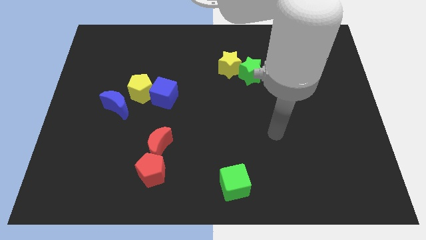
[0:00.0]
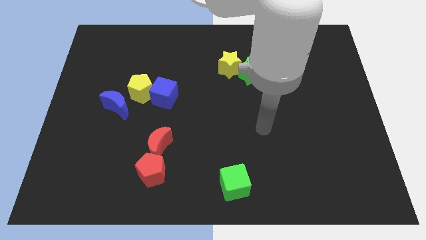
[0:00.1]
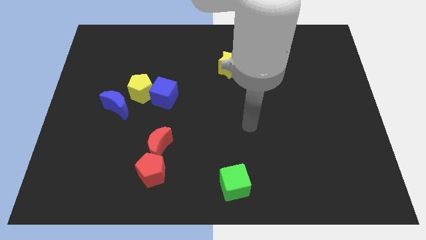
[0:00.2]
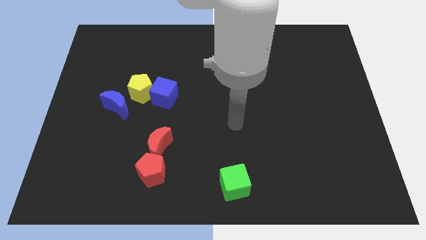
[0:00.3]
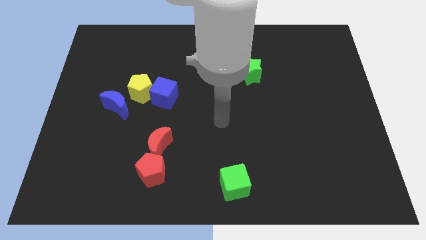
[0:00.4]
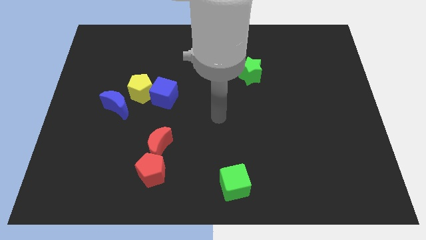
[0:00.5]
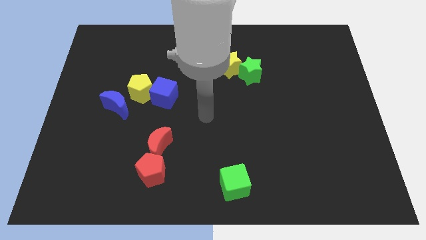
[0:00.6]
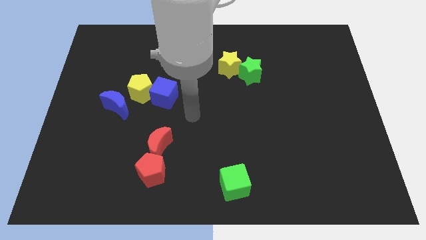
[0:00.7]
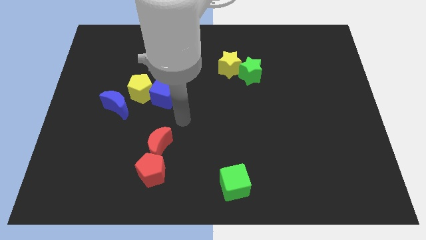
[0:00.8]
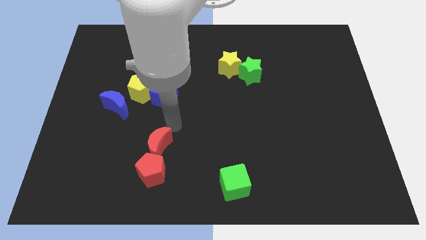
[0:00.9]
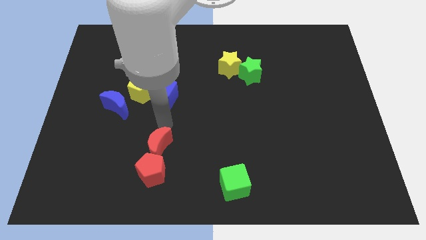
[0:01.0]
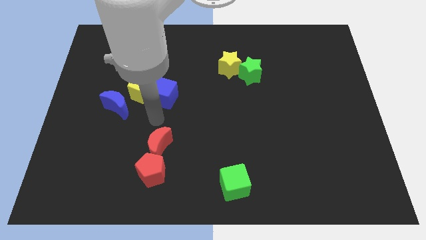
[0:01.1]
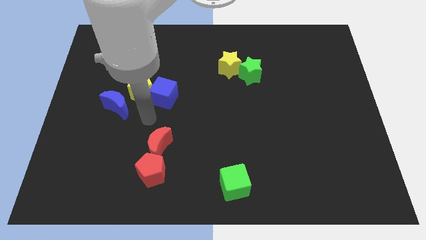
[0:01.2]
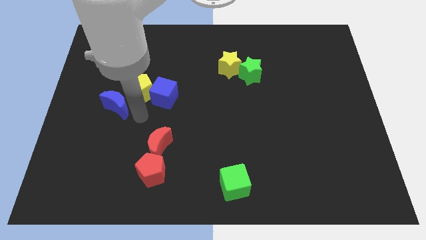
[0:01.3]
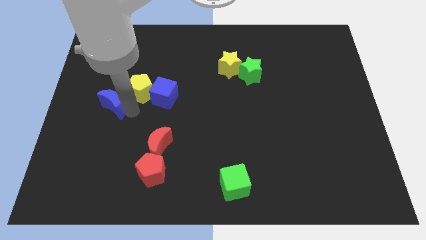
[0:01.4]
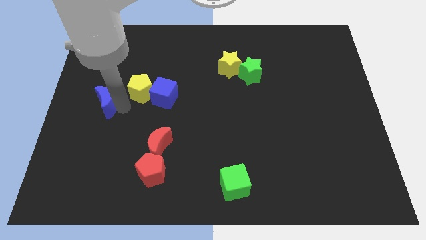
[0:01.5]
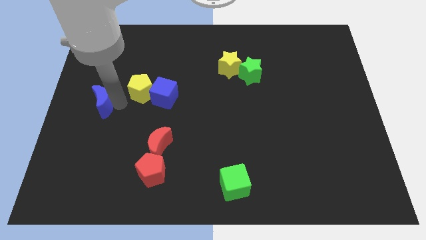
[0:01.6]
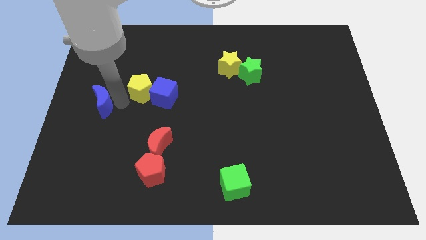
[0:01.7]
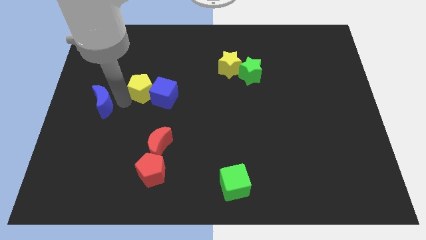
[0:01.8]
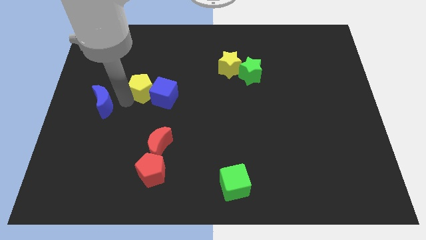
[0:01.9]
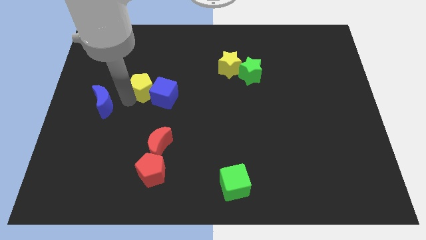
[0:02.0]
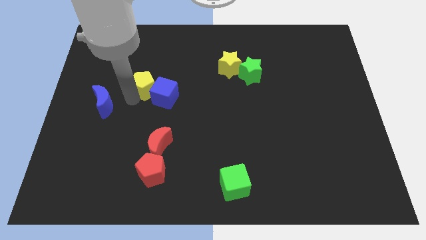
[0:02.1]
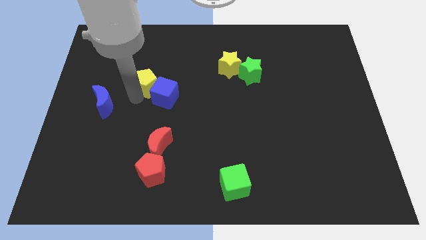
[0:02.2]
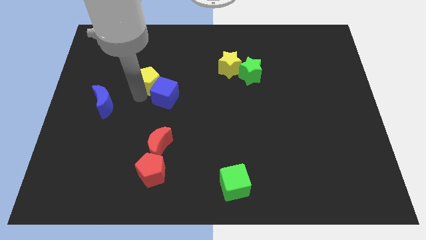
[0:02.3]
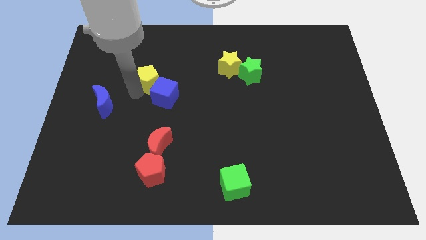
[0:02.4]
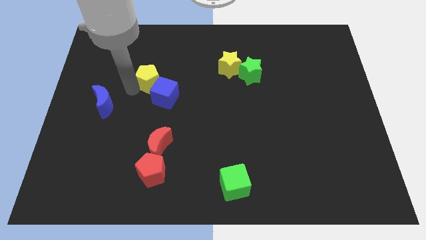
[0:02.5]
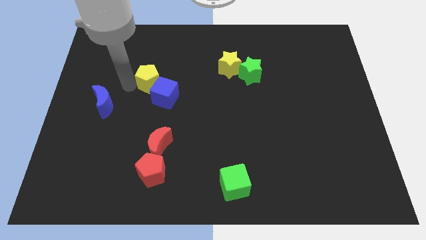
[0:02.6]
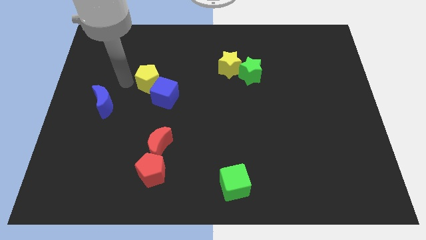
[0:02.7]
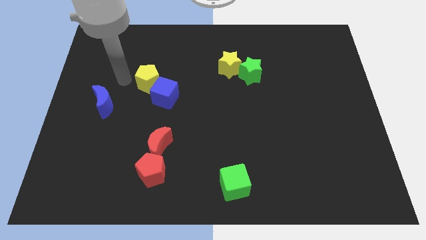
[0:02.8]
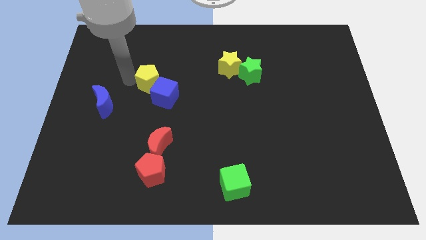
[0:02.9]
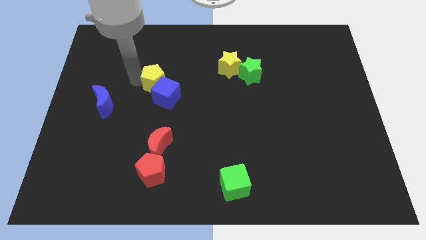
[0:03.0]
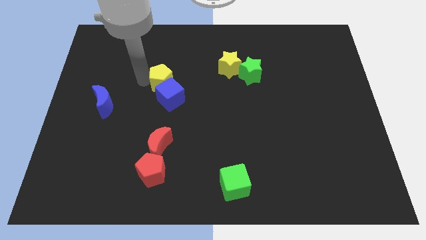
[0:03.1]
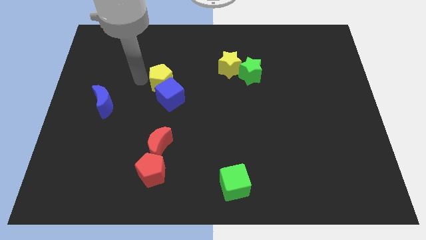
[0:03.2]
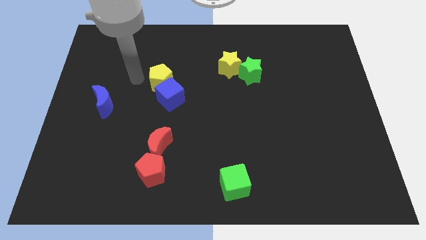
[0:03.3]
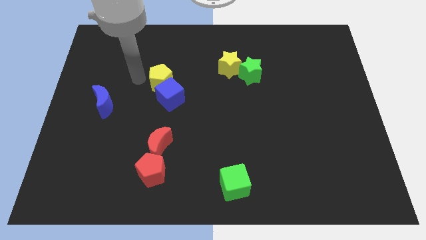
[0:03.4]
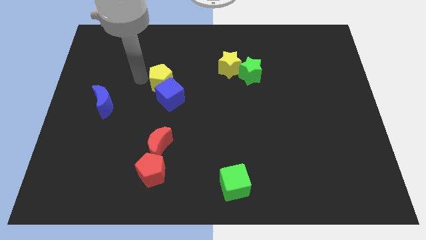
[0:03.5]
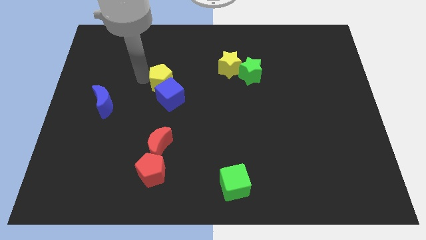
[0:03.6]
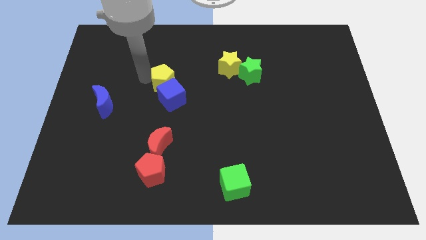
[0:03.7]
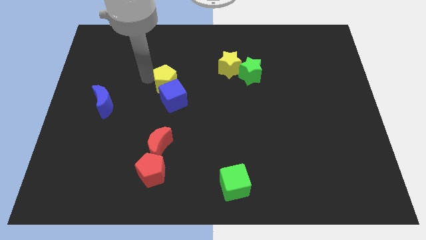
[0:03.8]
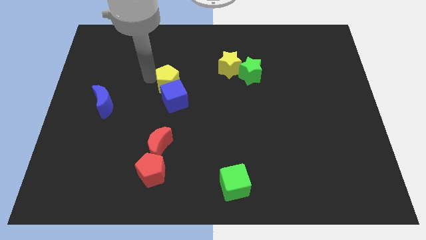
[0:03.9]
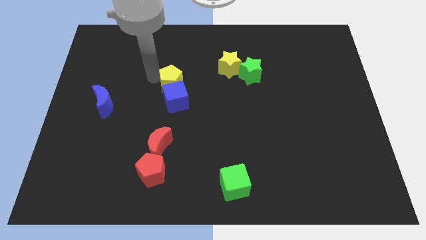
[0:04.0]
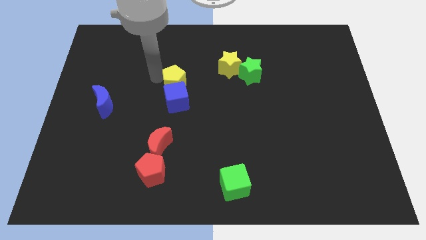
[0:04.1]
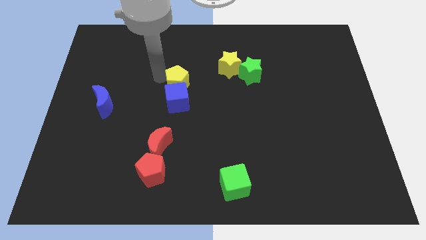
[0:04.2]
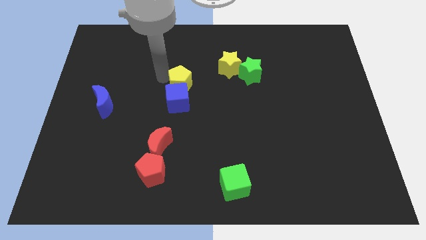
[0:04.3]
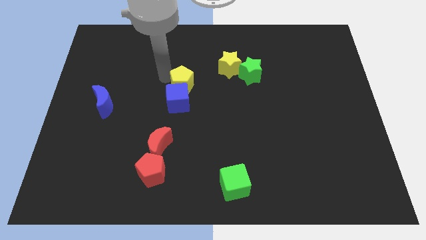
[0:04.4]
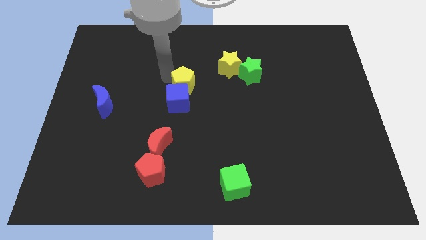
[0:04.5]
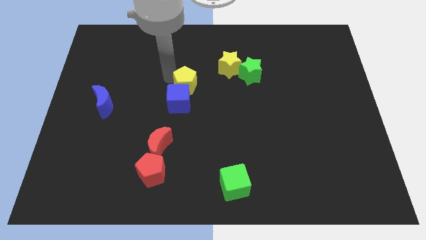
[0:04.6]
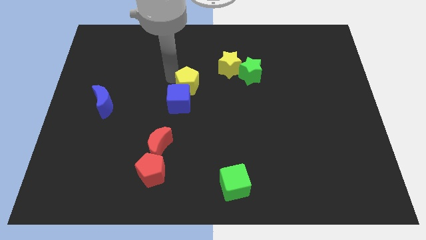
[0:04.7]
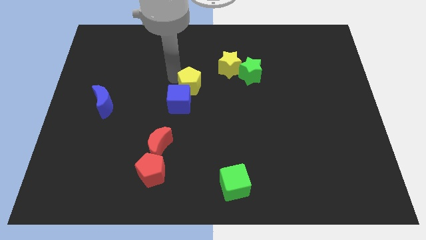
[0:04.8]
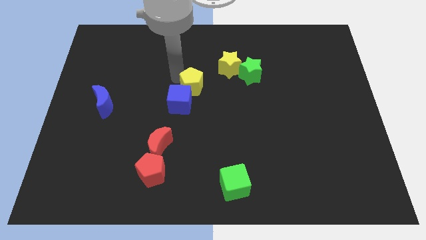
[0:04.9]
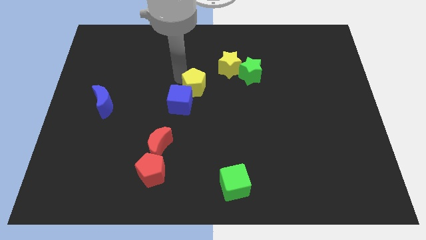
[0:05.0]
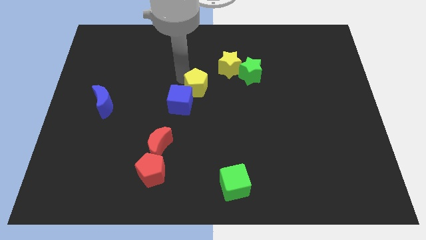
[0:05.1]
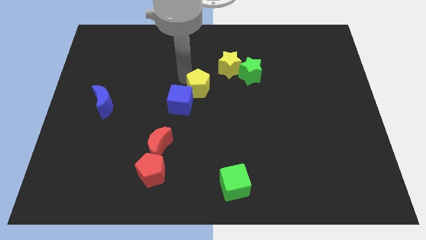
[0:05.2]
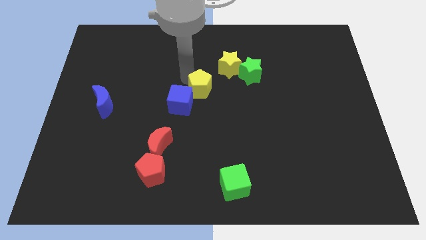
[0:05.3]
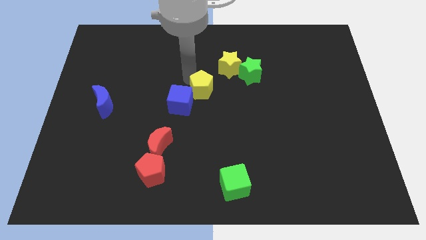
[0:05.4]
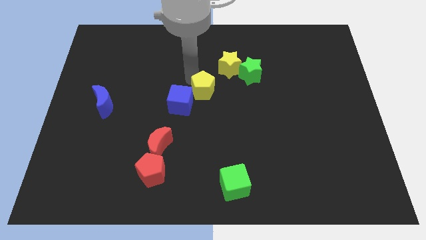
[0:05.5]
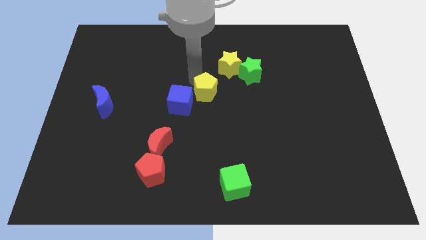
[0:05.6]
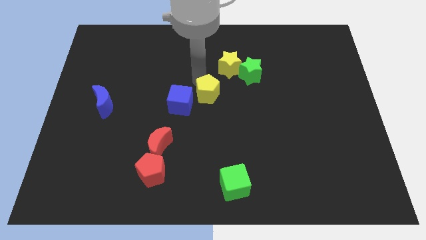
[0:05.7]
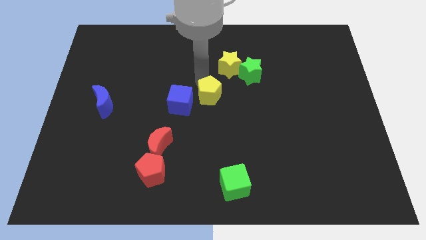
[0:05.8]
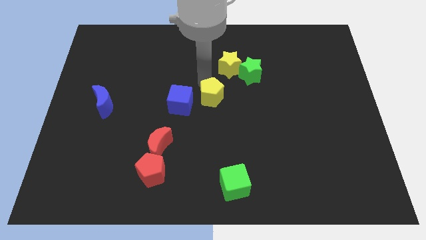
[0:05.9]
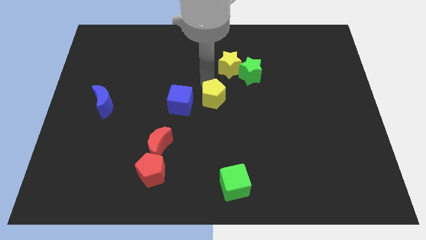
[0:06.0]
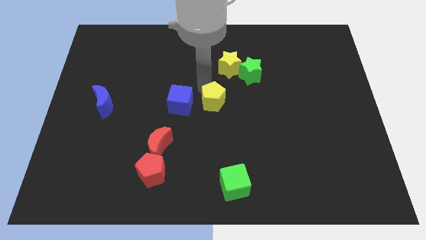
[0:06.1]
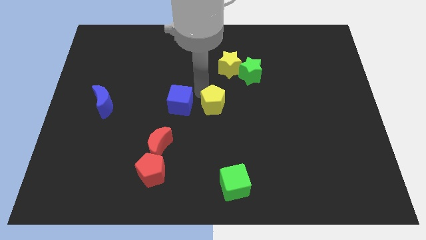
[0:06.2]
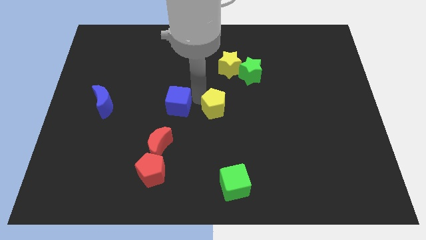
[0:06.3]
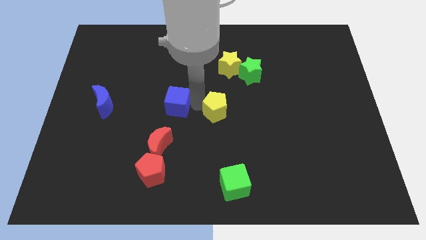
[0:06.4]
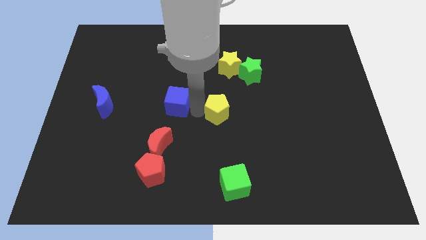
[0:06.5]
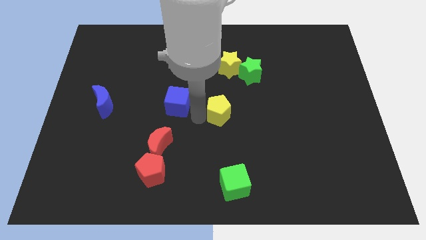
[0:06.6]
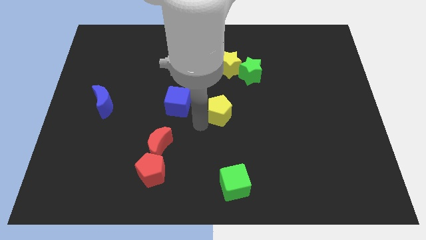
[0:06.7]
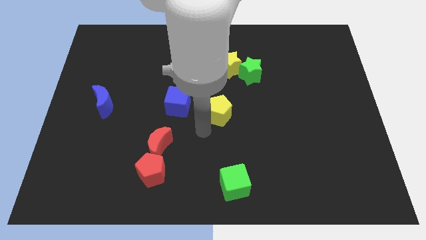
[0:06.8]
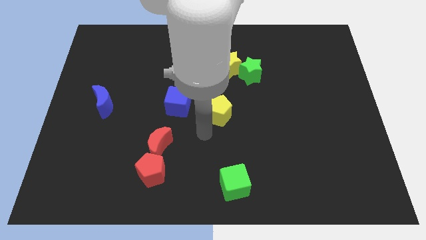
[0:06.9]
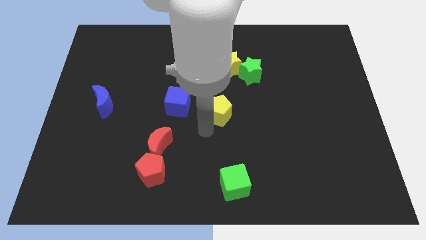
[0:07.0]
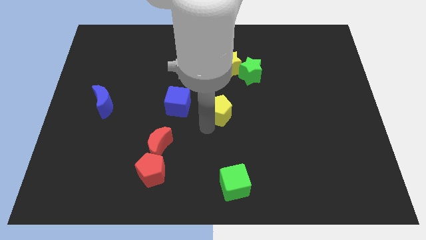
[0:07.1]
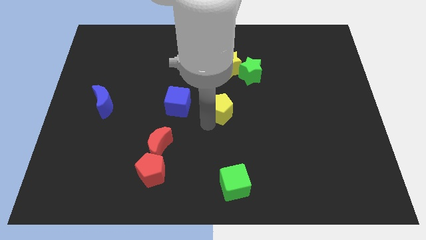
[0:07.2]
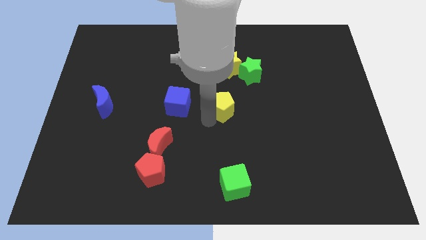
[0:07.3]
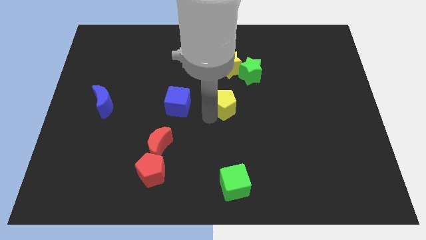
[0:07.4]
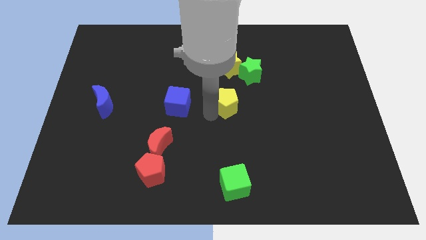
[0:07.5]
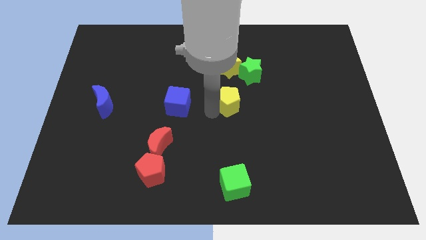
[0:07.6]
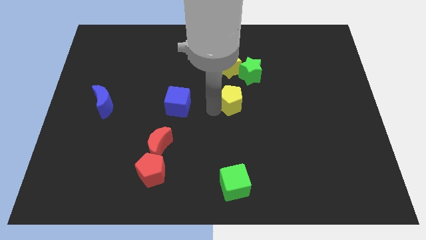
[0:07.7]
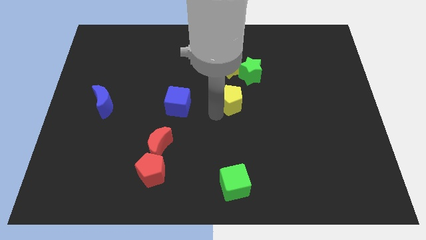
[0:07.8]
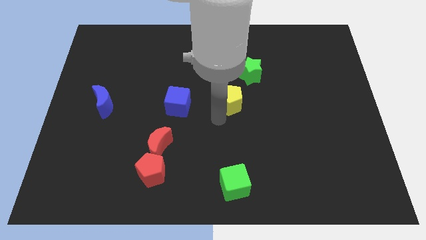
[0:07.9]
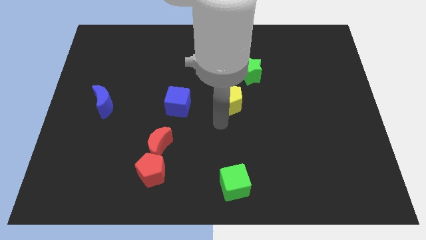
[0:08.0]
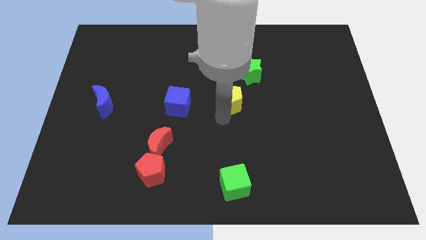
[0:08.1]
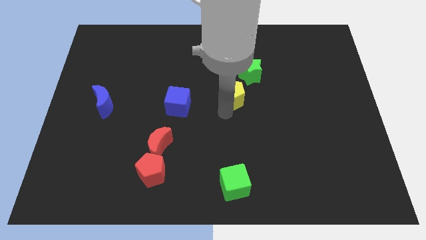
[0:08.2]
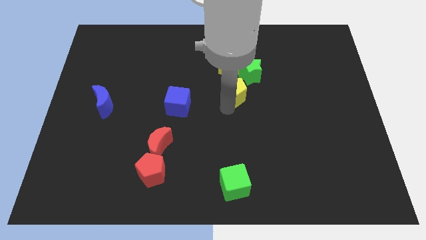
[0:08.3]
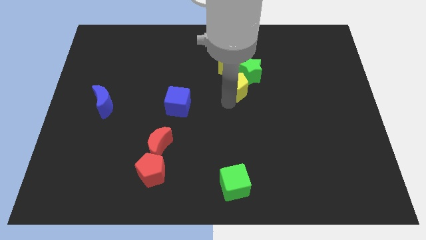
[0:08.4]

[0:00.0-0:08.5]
slide the yellow pentagon diagonally down and to the right of the yellow star
